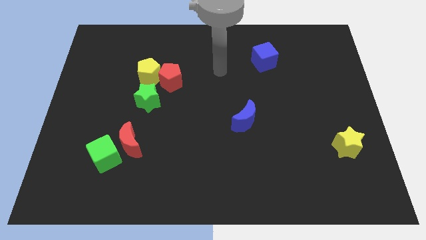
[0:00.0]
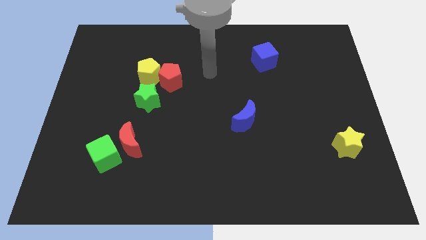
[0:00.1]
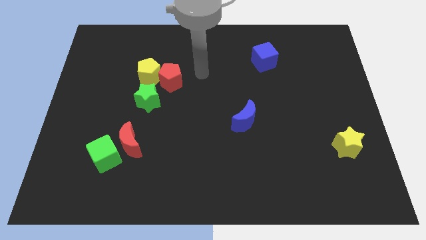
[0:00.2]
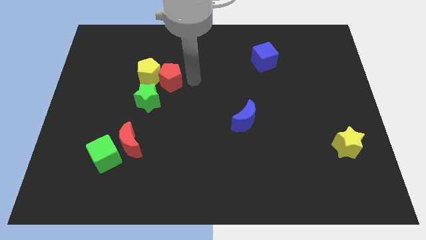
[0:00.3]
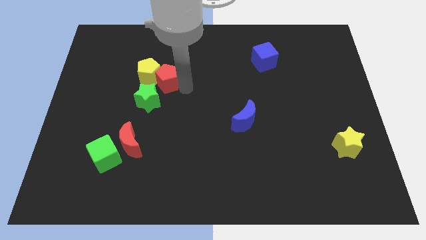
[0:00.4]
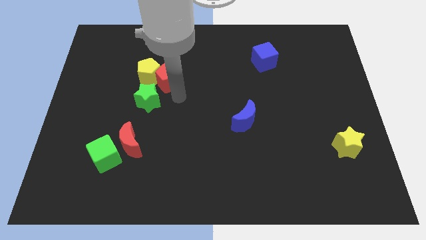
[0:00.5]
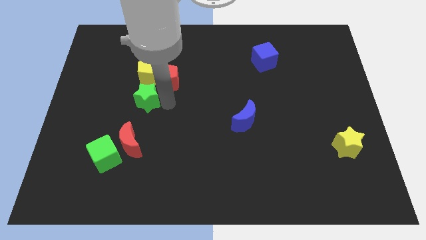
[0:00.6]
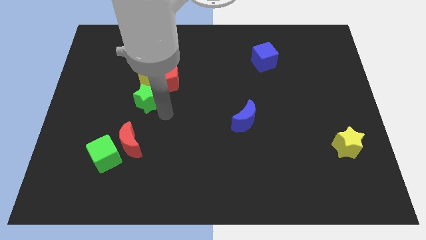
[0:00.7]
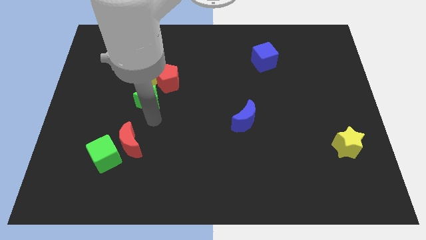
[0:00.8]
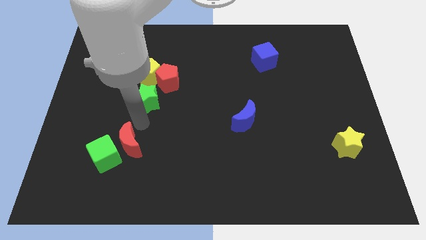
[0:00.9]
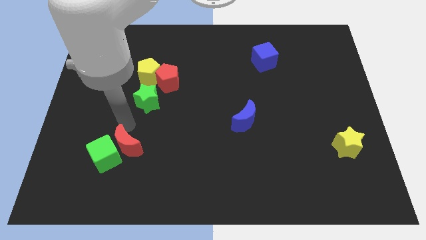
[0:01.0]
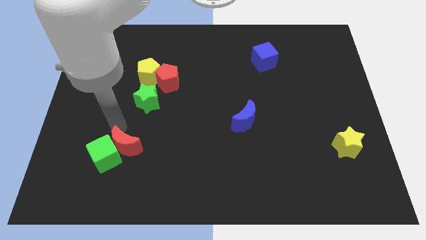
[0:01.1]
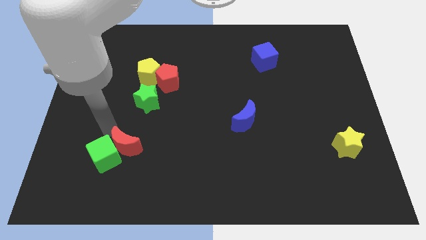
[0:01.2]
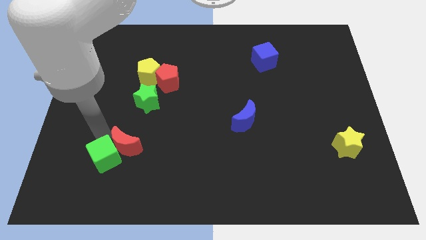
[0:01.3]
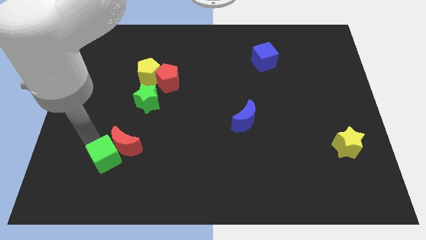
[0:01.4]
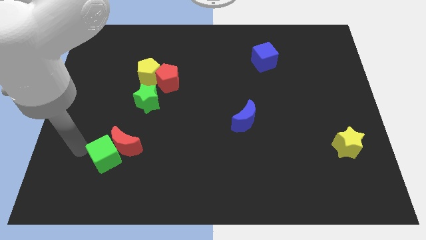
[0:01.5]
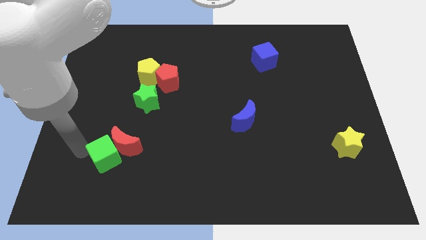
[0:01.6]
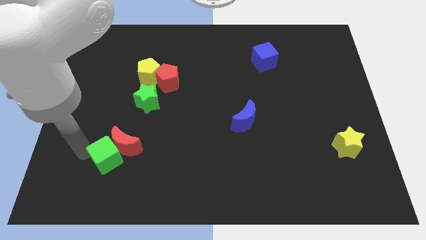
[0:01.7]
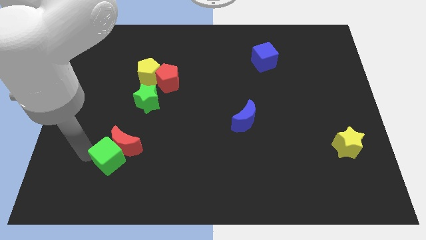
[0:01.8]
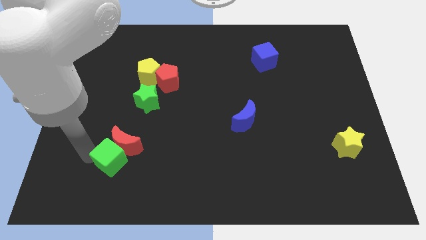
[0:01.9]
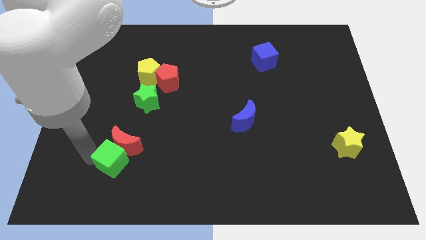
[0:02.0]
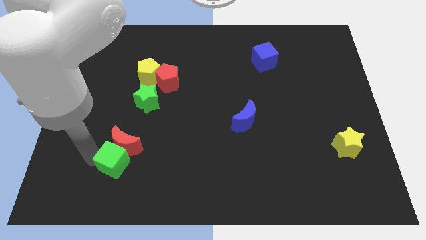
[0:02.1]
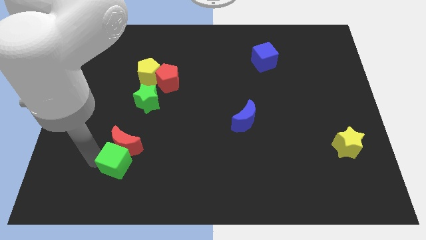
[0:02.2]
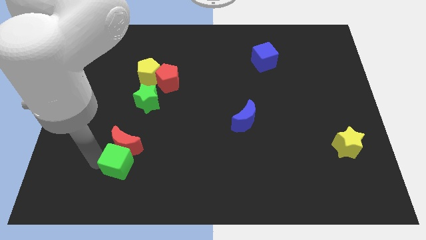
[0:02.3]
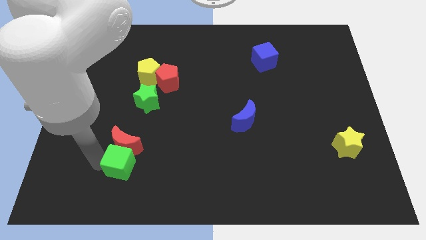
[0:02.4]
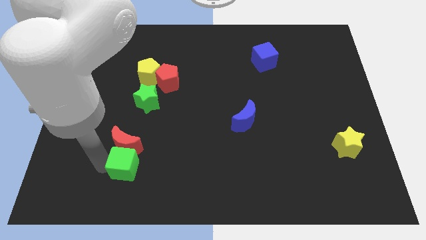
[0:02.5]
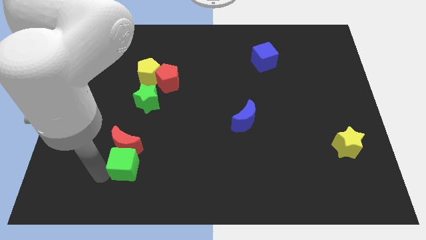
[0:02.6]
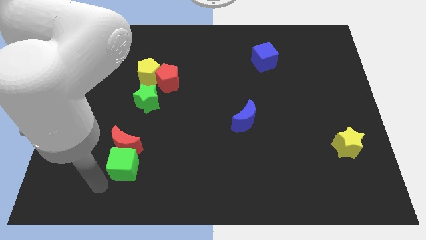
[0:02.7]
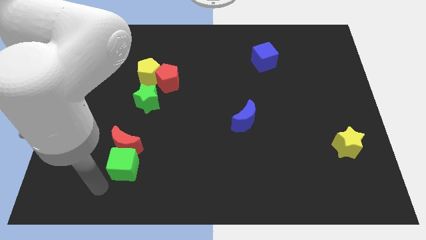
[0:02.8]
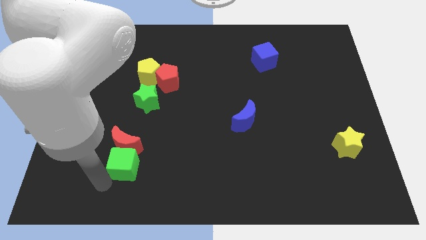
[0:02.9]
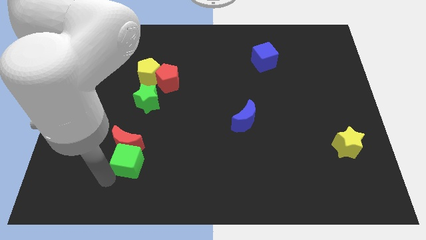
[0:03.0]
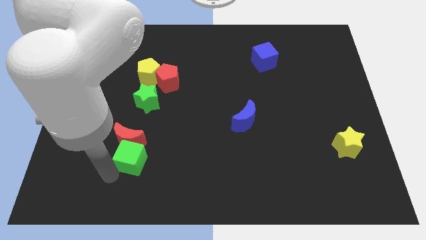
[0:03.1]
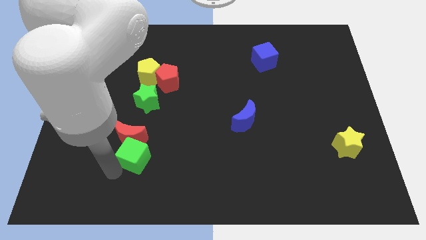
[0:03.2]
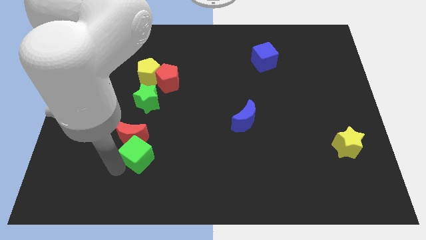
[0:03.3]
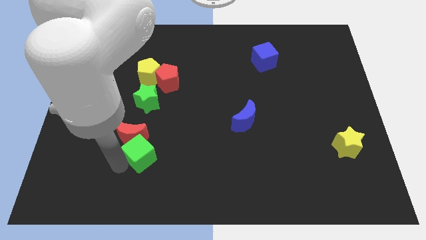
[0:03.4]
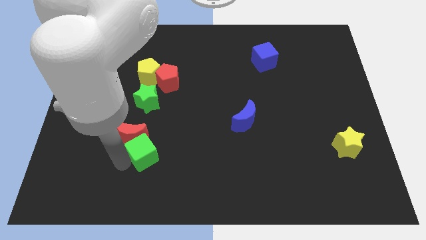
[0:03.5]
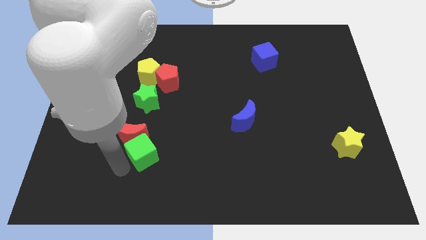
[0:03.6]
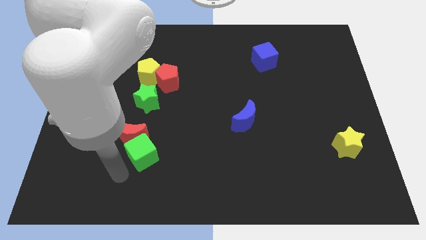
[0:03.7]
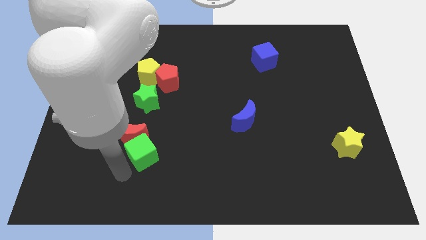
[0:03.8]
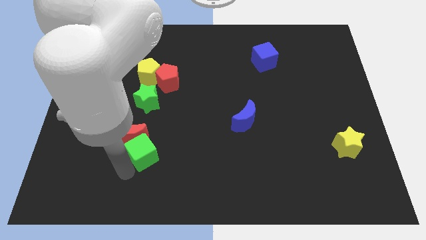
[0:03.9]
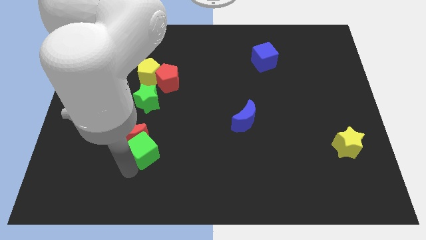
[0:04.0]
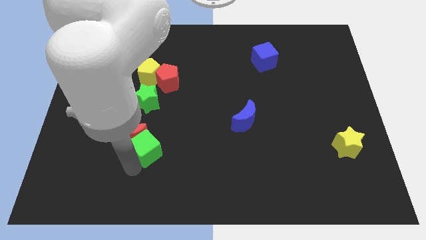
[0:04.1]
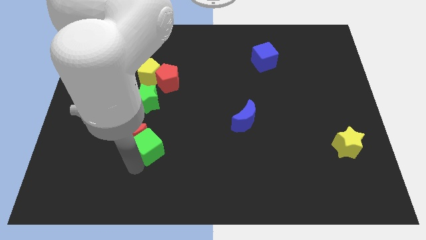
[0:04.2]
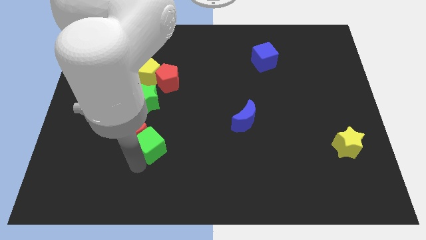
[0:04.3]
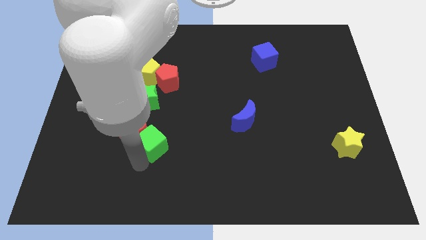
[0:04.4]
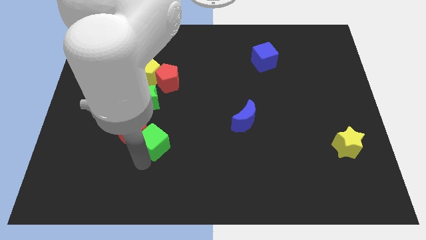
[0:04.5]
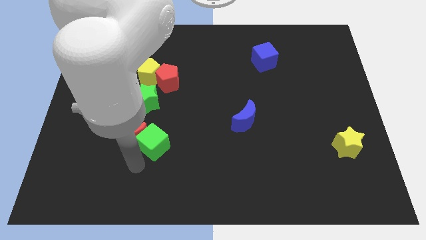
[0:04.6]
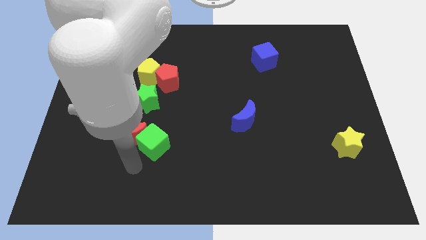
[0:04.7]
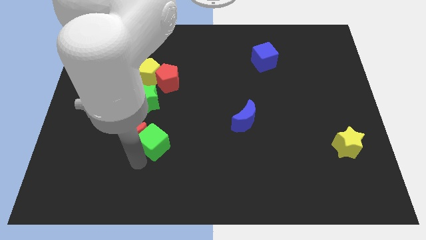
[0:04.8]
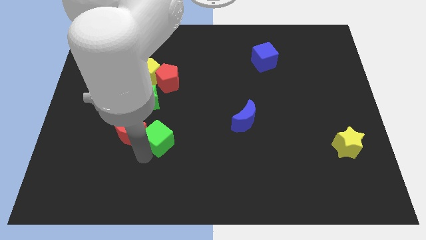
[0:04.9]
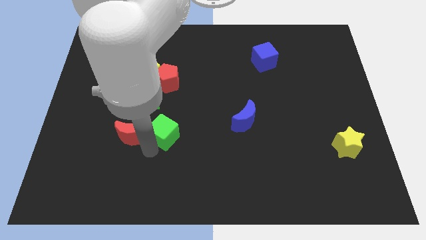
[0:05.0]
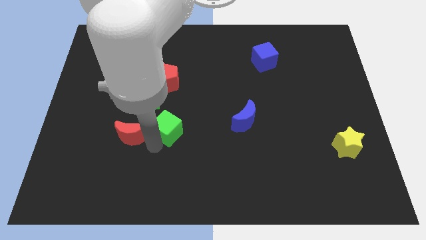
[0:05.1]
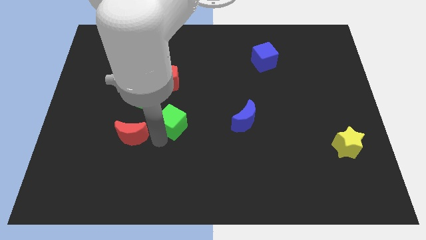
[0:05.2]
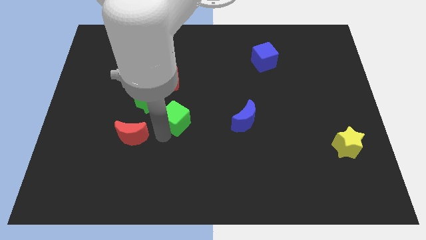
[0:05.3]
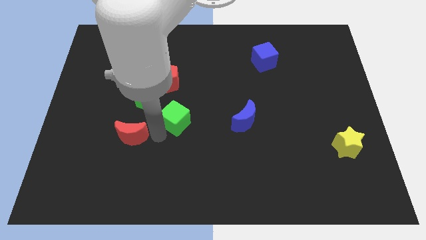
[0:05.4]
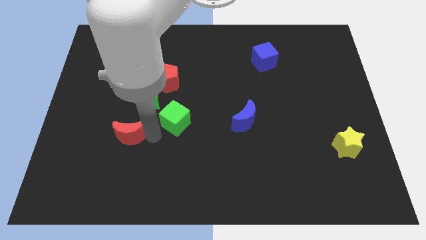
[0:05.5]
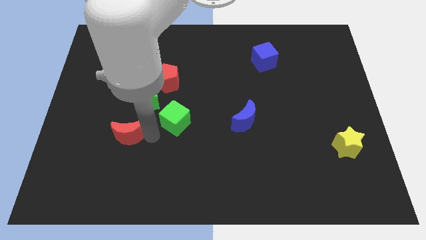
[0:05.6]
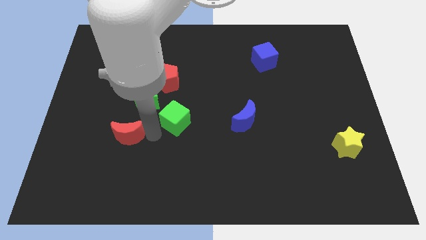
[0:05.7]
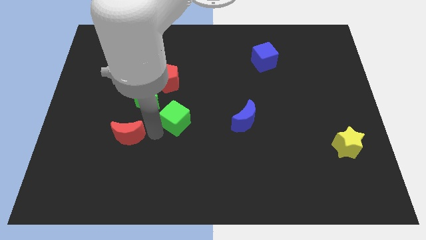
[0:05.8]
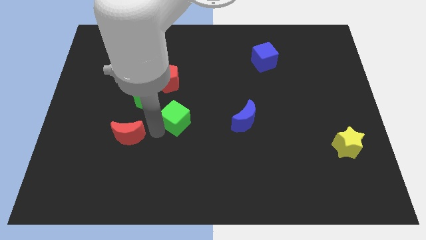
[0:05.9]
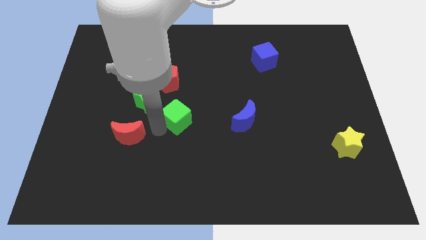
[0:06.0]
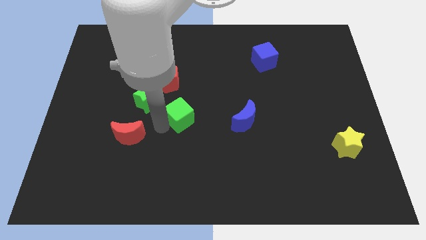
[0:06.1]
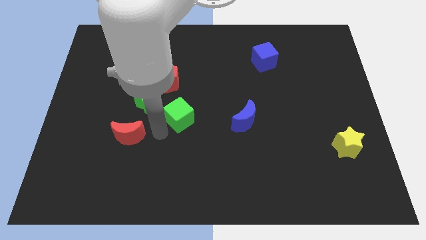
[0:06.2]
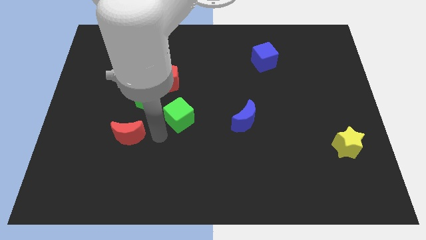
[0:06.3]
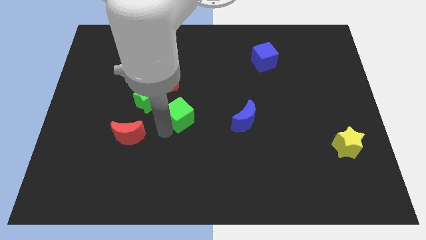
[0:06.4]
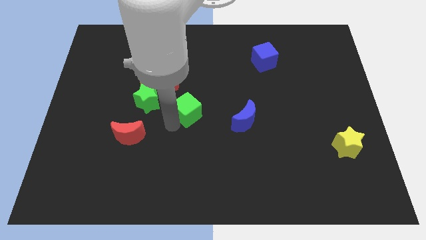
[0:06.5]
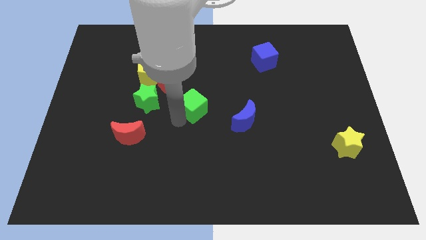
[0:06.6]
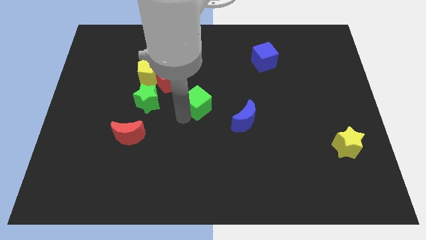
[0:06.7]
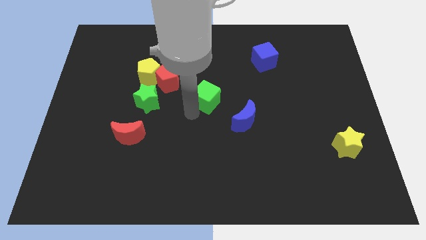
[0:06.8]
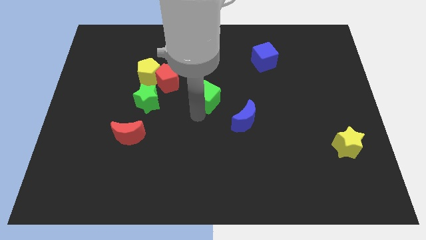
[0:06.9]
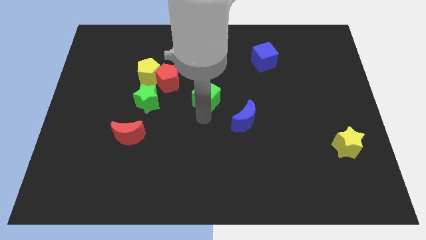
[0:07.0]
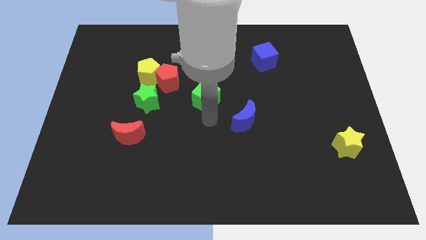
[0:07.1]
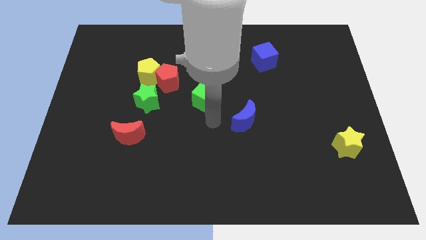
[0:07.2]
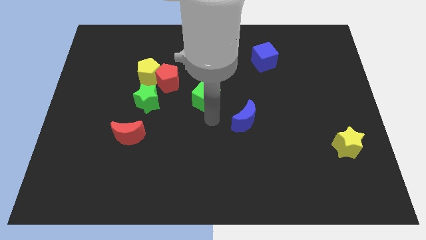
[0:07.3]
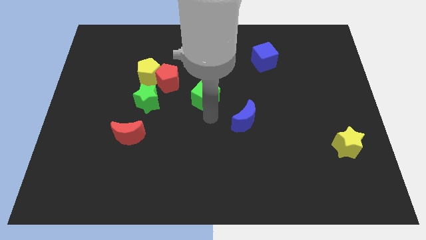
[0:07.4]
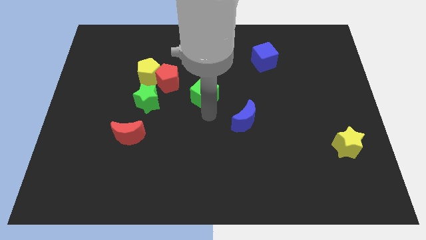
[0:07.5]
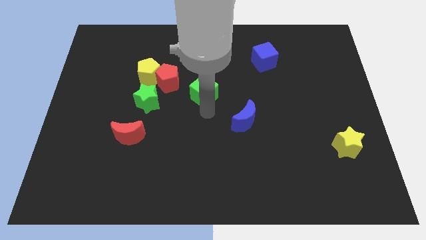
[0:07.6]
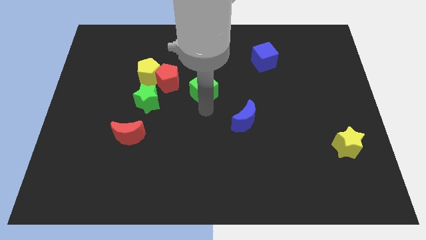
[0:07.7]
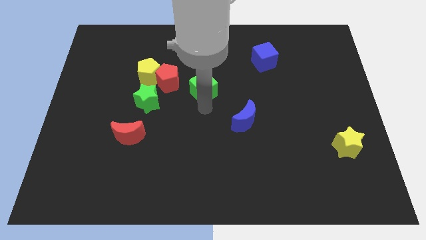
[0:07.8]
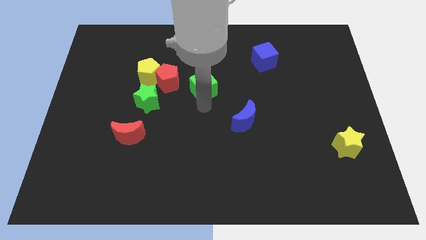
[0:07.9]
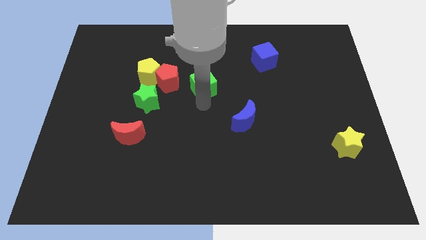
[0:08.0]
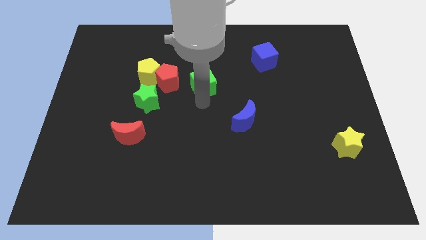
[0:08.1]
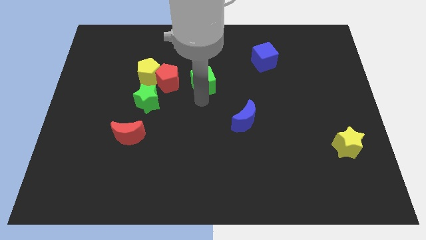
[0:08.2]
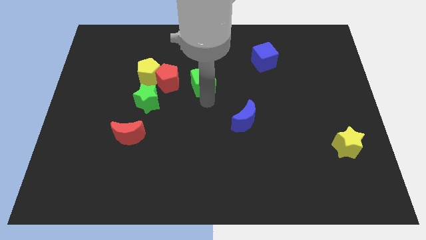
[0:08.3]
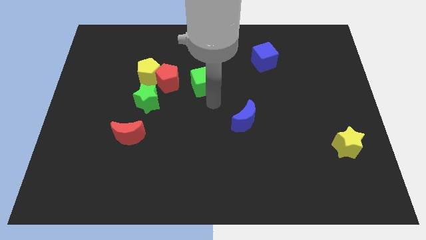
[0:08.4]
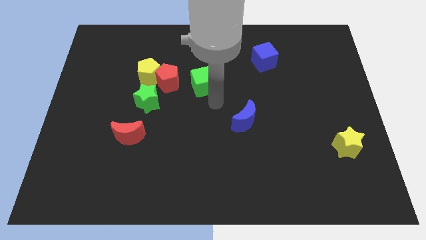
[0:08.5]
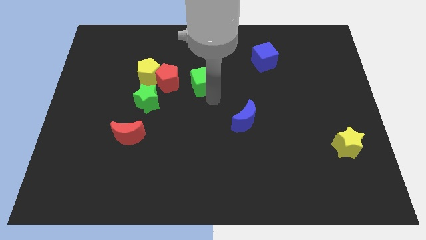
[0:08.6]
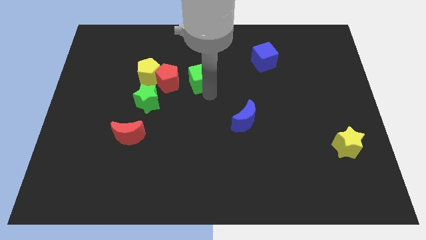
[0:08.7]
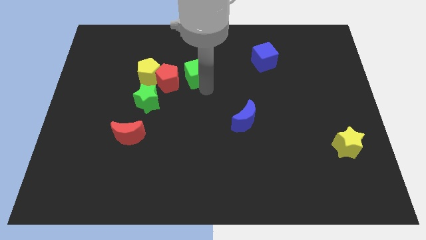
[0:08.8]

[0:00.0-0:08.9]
move the green cube diagonally up and to the right of the red pentagon
